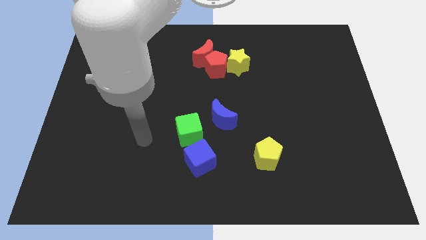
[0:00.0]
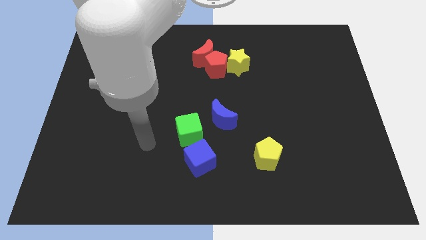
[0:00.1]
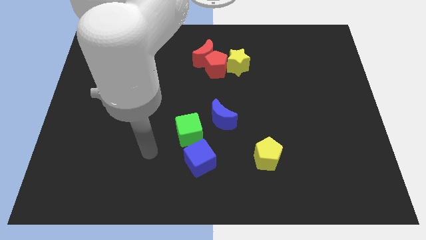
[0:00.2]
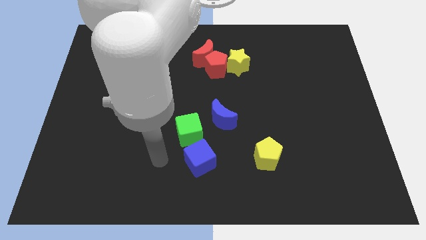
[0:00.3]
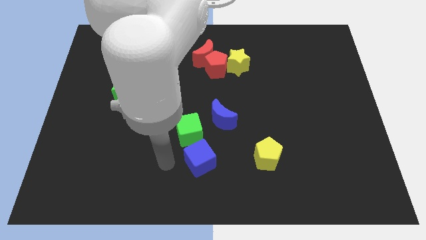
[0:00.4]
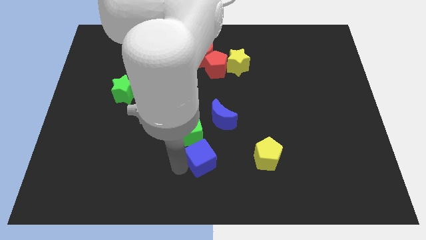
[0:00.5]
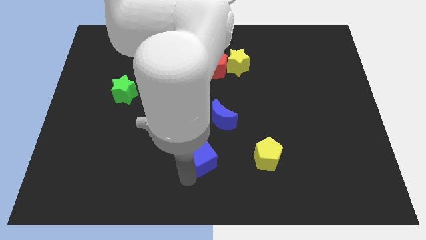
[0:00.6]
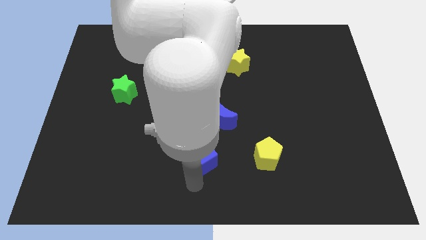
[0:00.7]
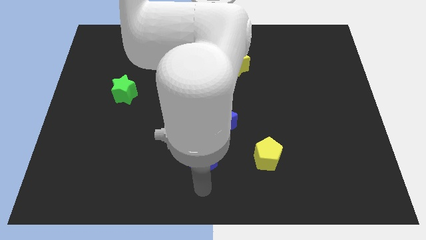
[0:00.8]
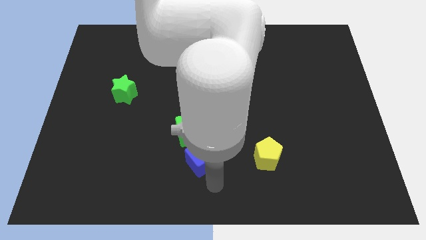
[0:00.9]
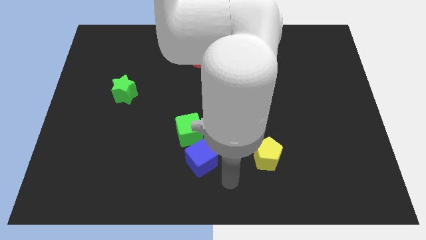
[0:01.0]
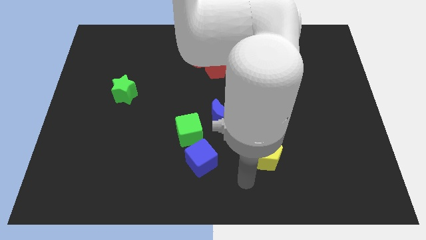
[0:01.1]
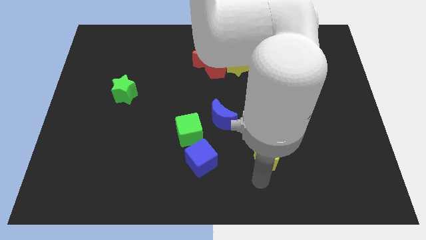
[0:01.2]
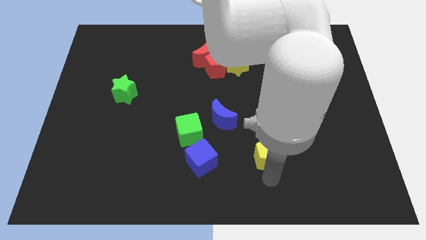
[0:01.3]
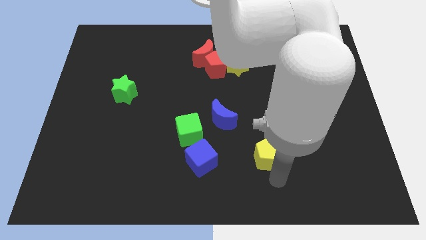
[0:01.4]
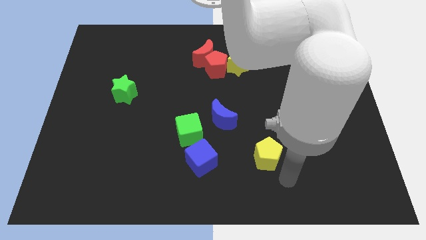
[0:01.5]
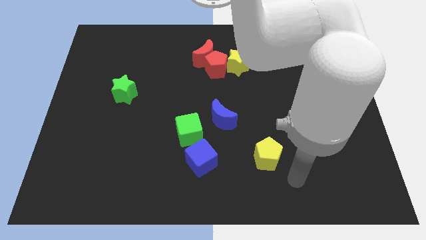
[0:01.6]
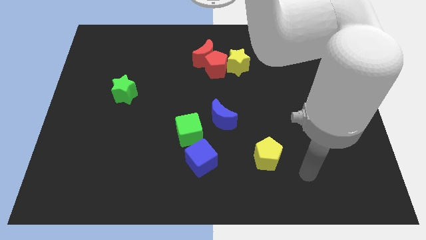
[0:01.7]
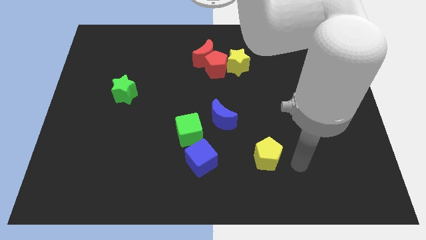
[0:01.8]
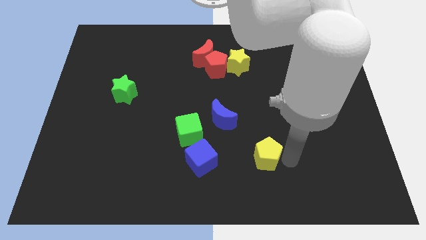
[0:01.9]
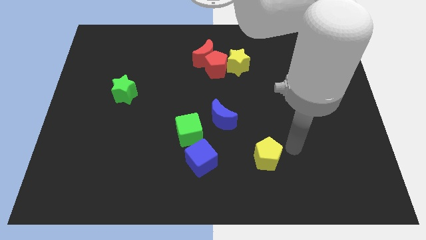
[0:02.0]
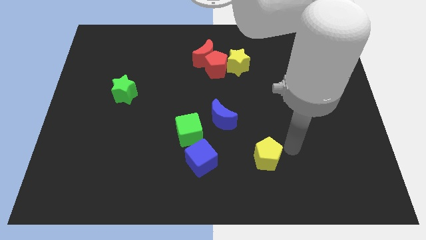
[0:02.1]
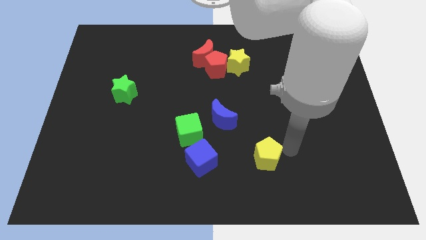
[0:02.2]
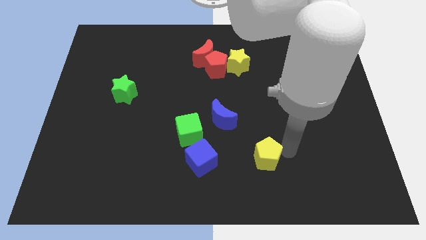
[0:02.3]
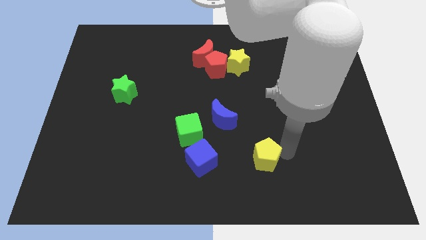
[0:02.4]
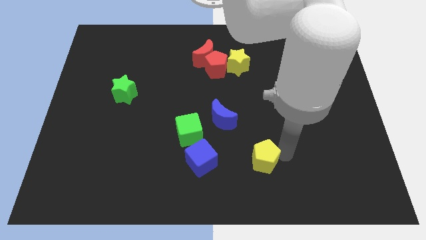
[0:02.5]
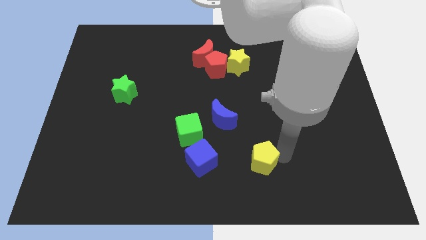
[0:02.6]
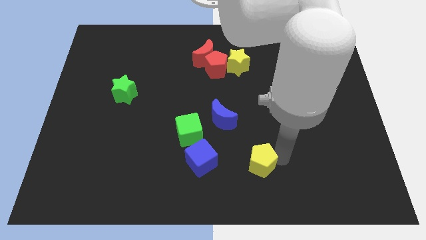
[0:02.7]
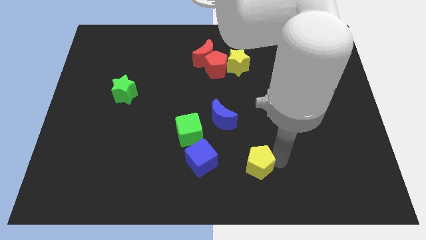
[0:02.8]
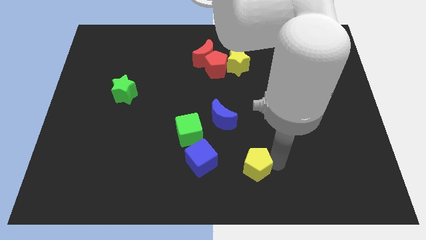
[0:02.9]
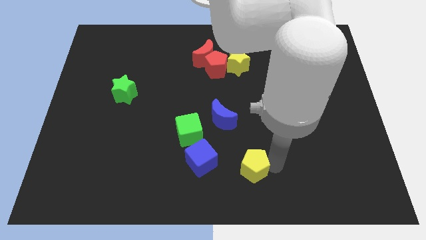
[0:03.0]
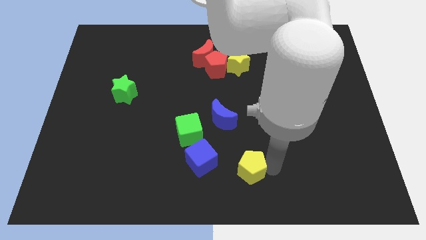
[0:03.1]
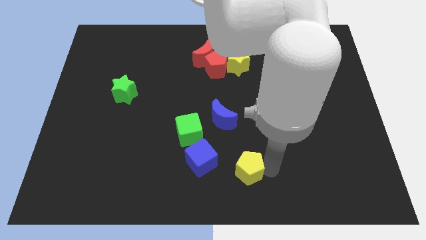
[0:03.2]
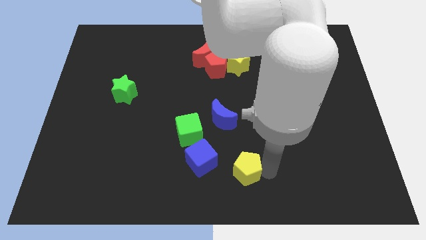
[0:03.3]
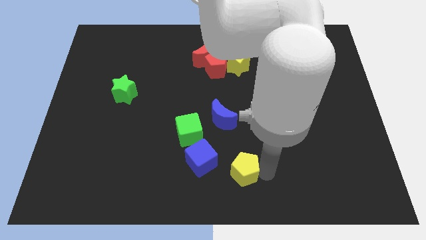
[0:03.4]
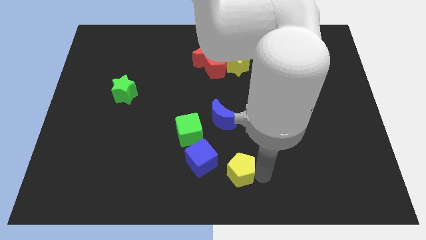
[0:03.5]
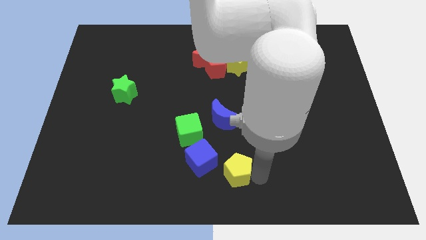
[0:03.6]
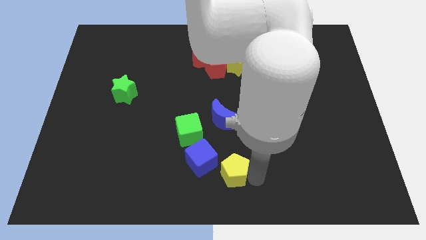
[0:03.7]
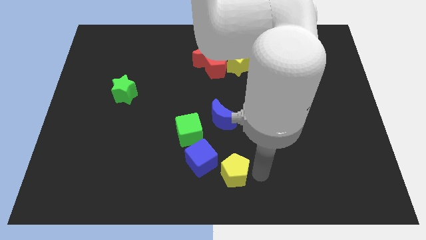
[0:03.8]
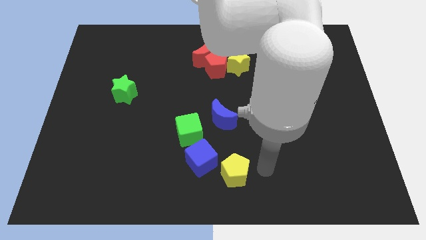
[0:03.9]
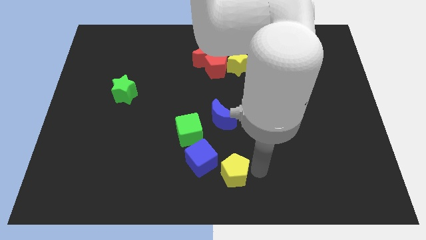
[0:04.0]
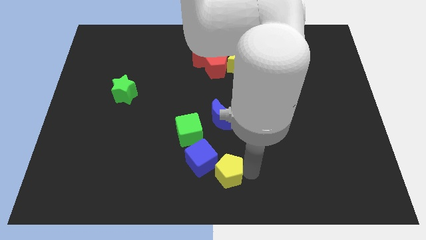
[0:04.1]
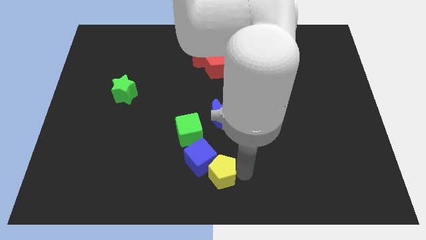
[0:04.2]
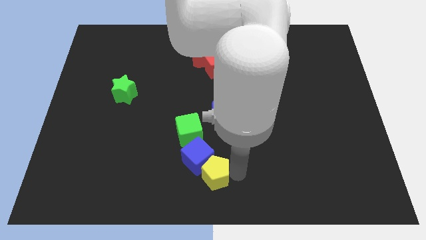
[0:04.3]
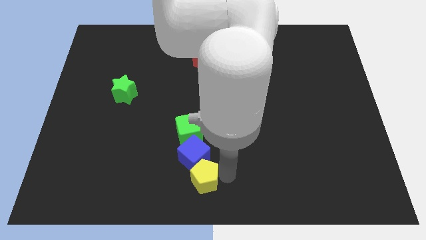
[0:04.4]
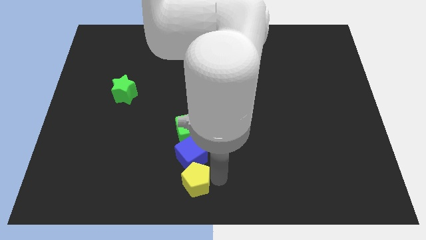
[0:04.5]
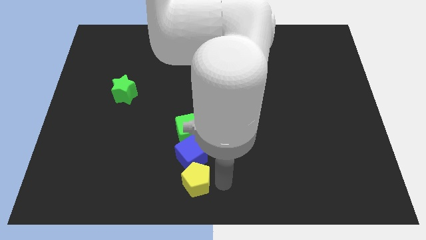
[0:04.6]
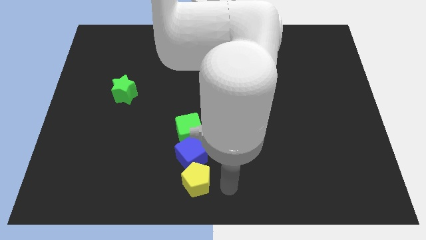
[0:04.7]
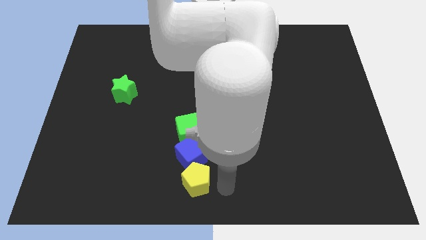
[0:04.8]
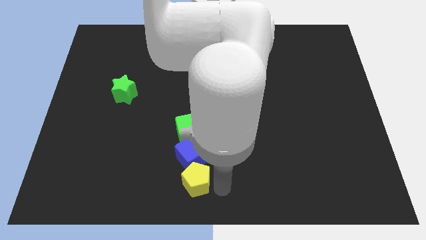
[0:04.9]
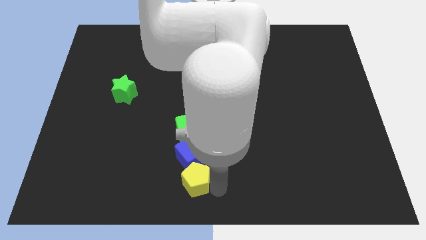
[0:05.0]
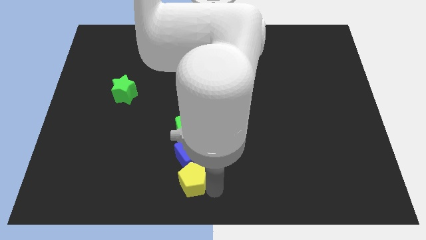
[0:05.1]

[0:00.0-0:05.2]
put the yellow pentagon to the bottom left side of the blue cube

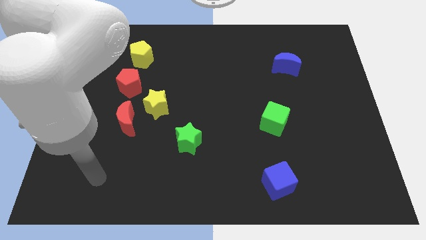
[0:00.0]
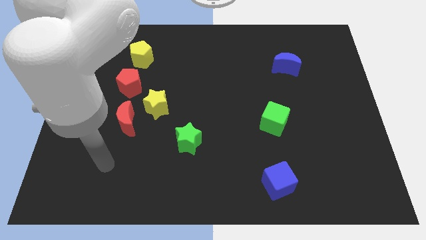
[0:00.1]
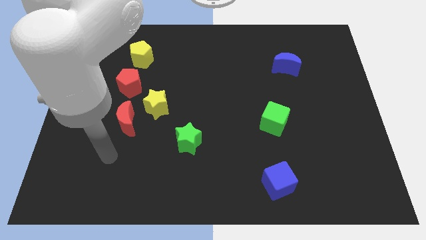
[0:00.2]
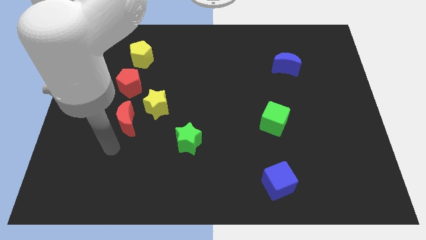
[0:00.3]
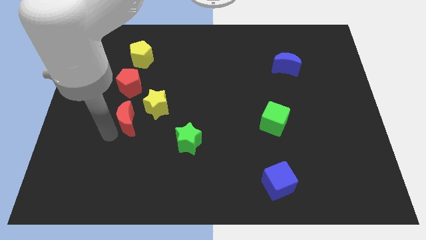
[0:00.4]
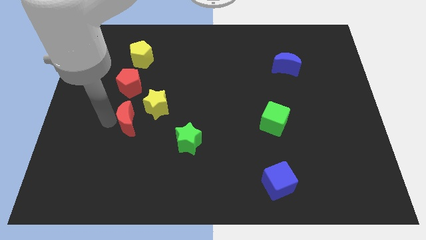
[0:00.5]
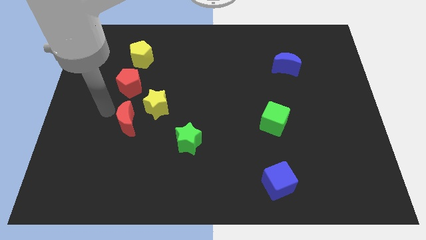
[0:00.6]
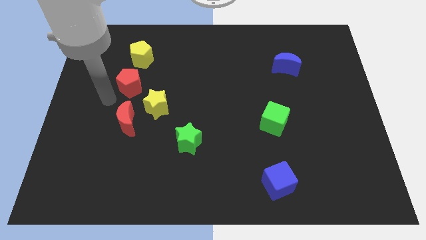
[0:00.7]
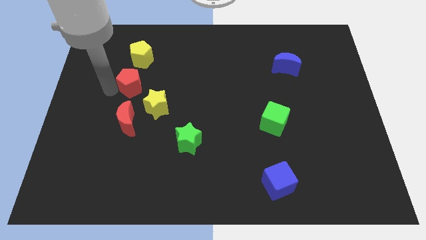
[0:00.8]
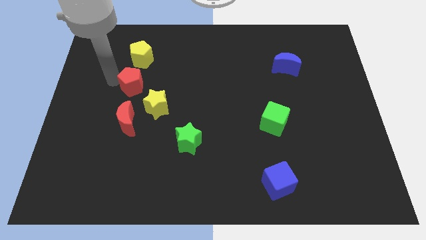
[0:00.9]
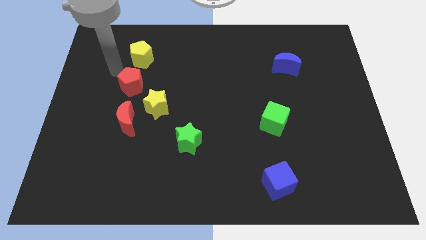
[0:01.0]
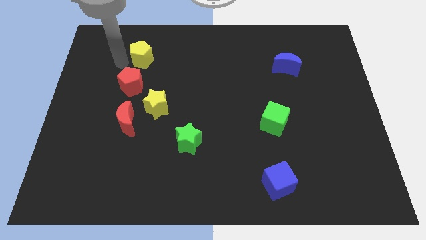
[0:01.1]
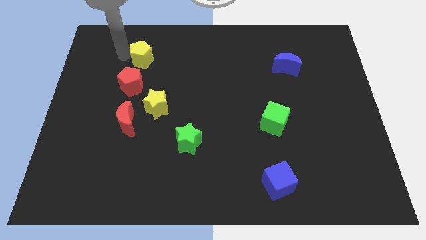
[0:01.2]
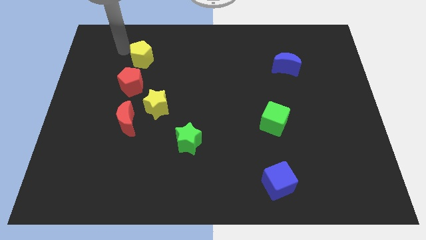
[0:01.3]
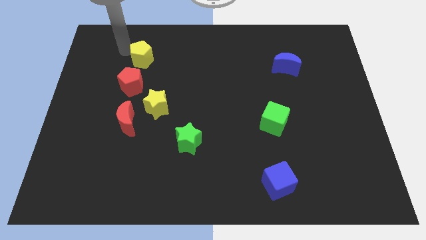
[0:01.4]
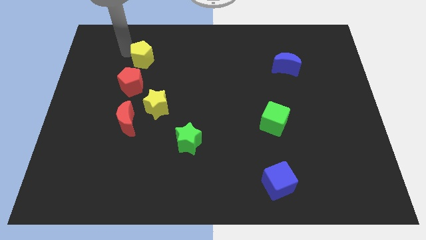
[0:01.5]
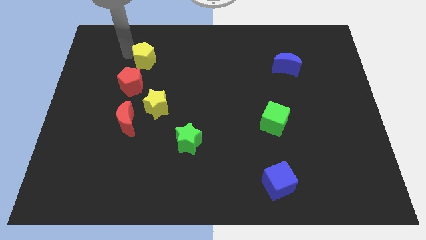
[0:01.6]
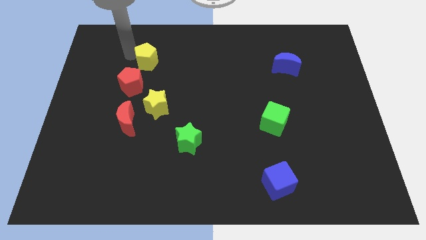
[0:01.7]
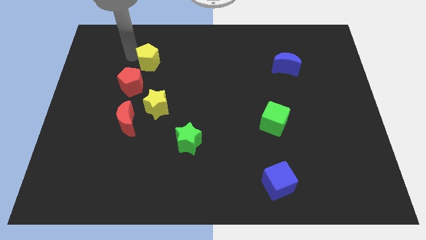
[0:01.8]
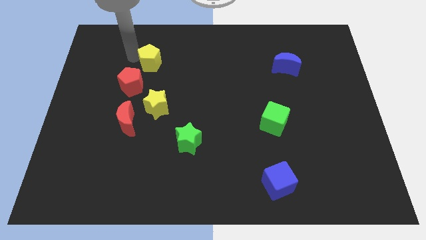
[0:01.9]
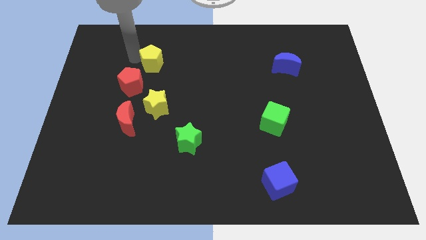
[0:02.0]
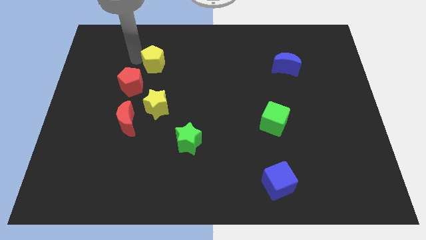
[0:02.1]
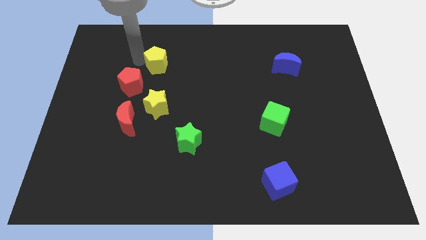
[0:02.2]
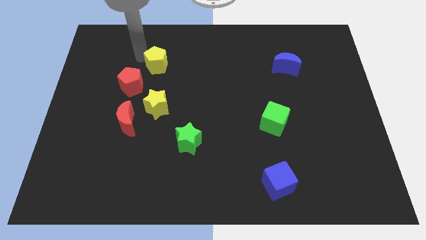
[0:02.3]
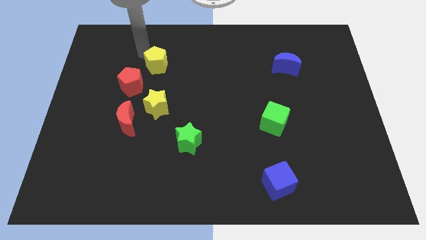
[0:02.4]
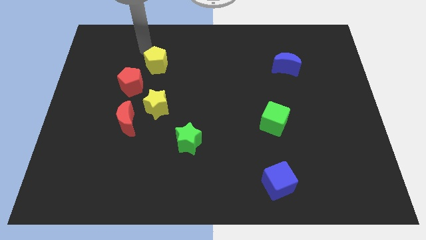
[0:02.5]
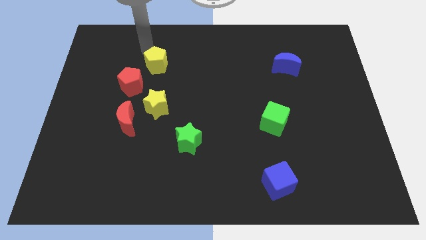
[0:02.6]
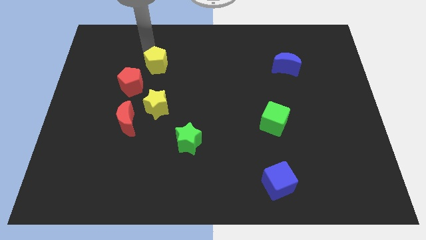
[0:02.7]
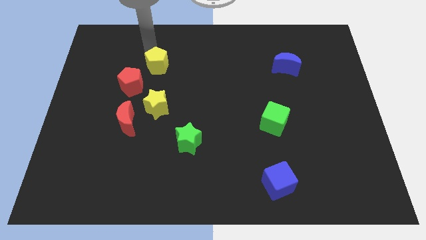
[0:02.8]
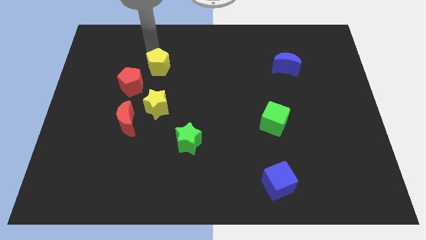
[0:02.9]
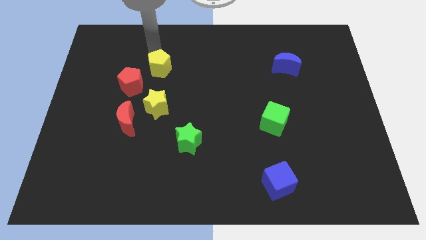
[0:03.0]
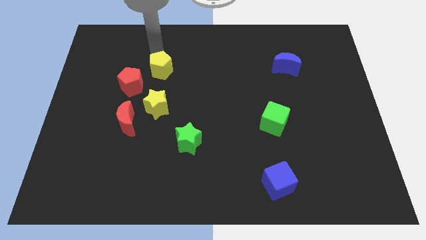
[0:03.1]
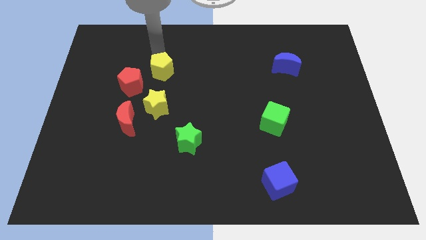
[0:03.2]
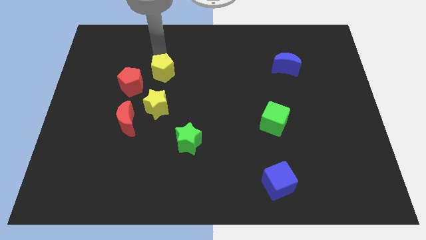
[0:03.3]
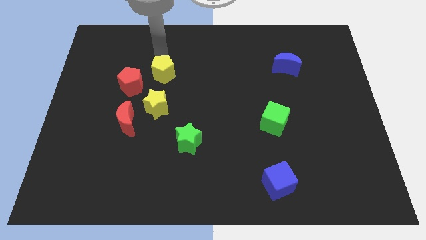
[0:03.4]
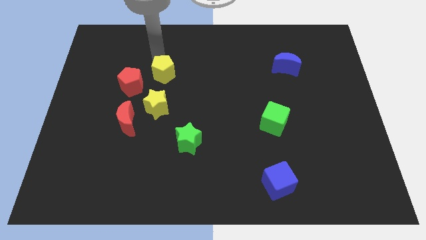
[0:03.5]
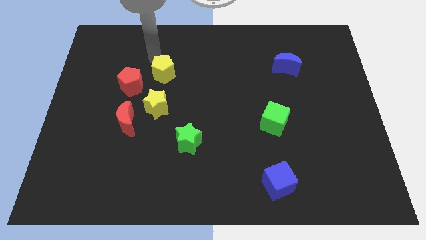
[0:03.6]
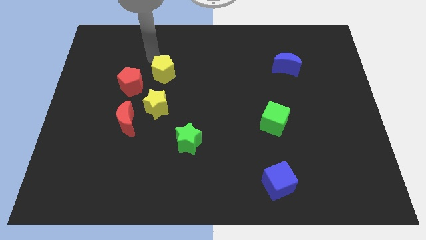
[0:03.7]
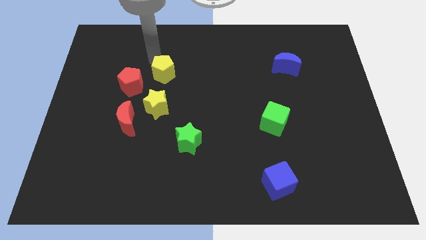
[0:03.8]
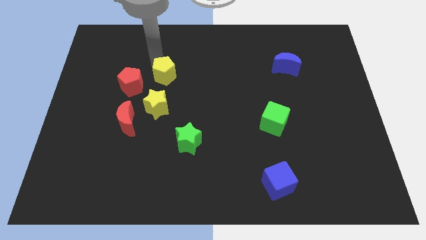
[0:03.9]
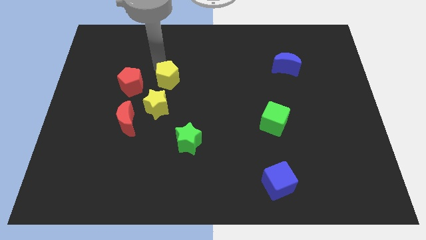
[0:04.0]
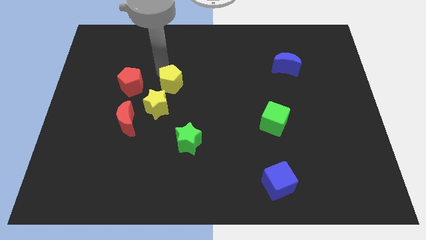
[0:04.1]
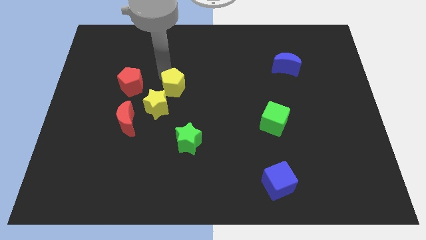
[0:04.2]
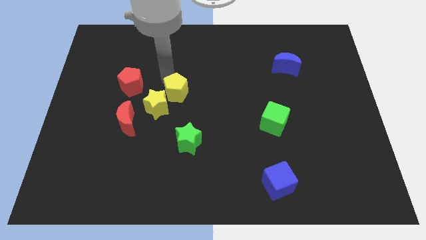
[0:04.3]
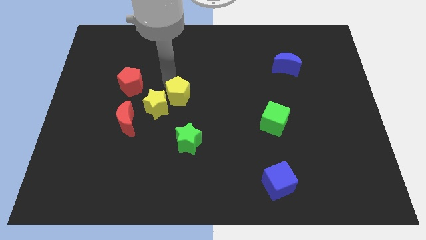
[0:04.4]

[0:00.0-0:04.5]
push the yellow pentagon to the right of the yellow star
